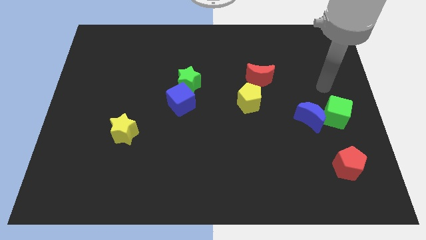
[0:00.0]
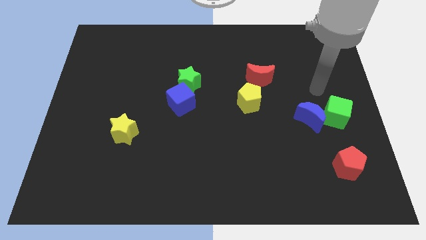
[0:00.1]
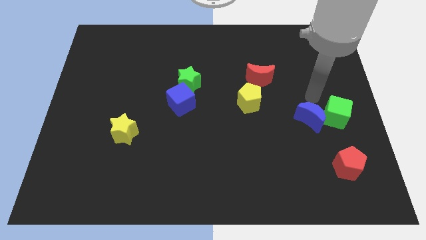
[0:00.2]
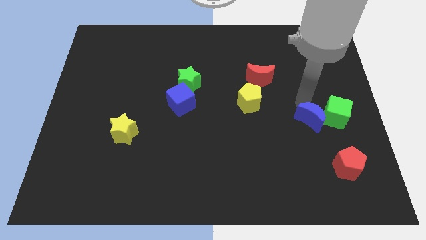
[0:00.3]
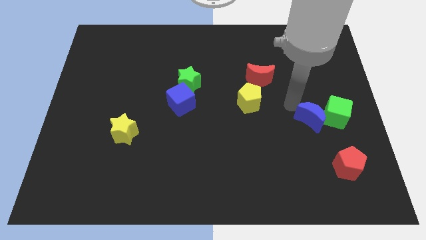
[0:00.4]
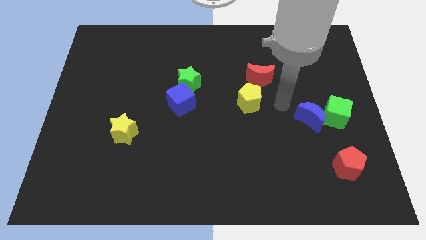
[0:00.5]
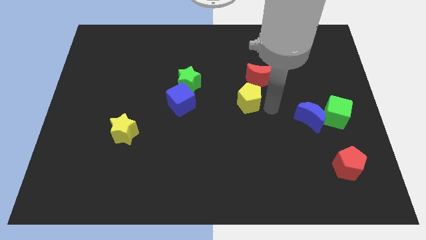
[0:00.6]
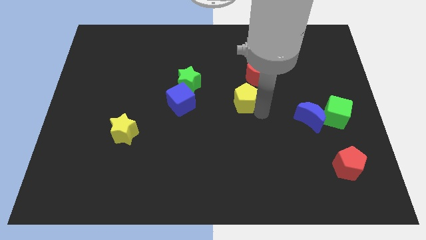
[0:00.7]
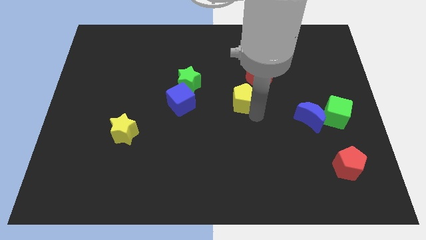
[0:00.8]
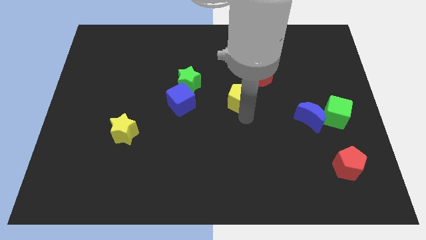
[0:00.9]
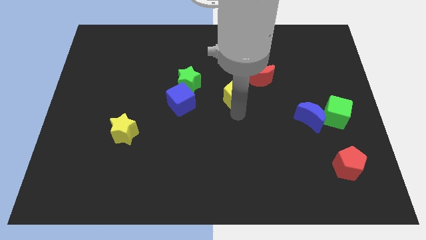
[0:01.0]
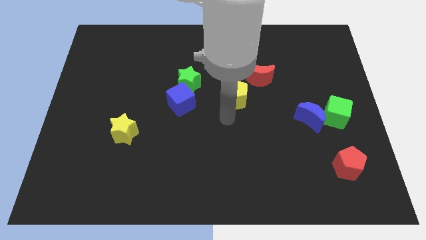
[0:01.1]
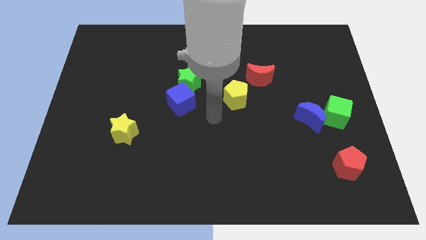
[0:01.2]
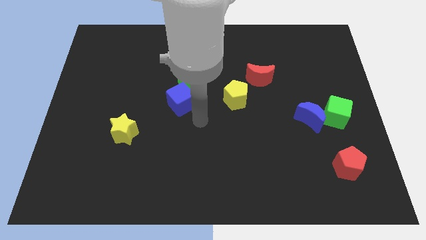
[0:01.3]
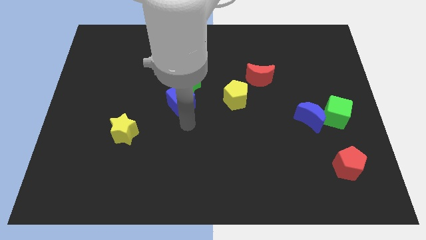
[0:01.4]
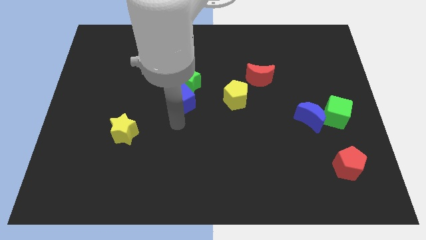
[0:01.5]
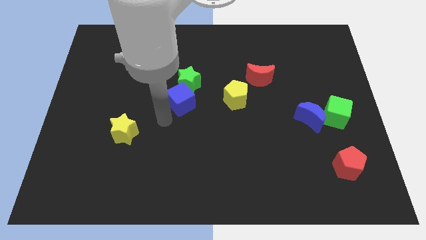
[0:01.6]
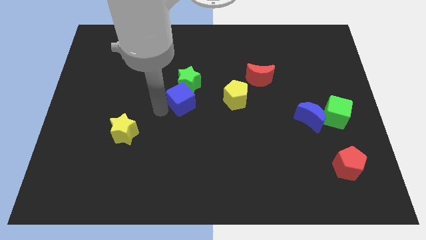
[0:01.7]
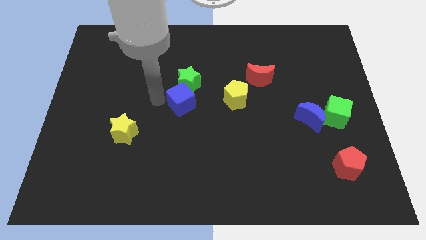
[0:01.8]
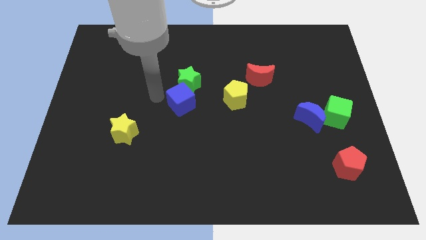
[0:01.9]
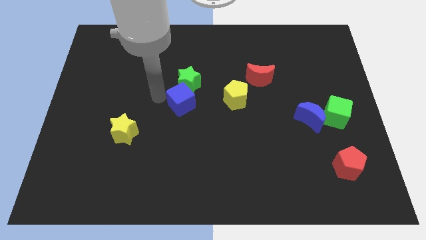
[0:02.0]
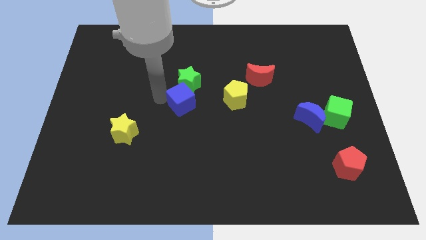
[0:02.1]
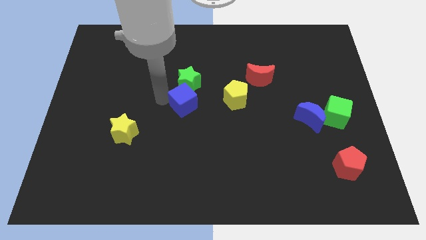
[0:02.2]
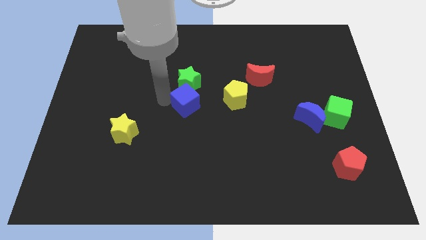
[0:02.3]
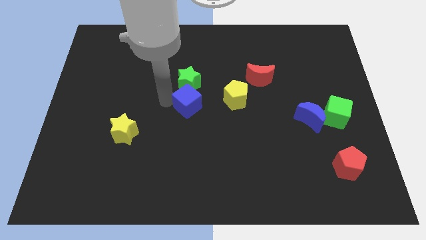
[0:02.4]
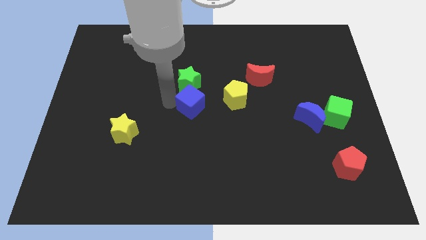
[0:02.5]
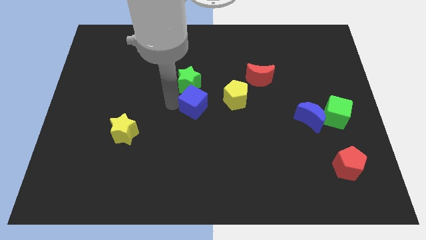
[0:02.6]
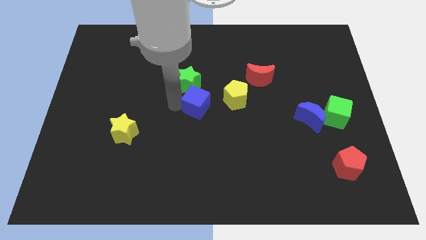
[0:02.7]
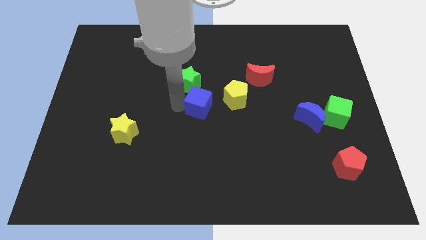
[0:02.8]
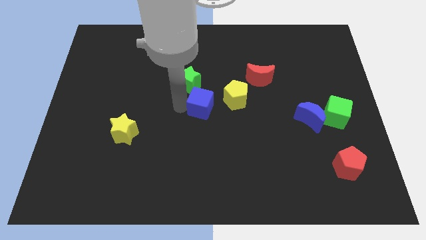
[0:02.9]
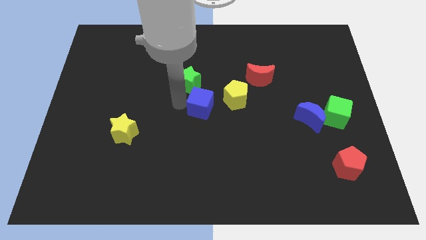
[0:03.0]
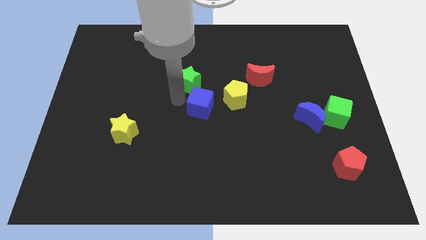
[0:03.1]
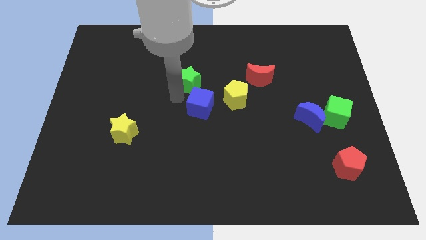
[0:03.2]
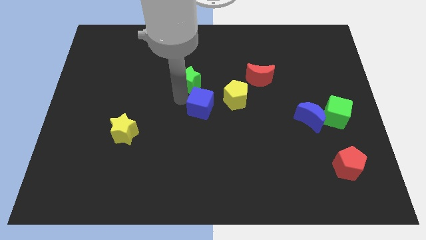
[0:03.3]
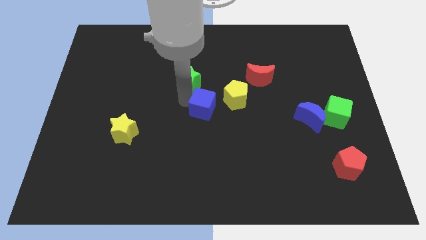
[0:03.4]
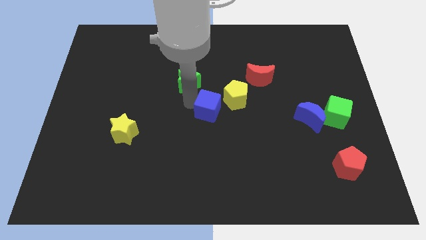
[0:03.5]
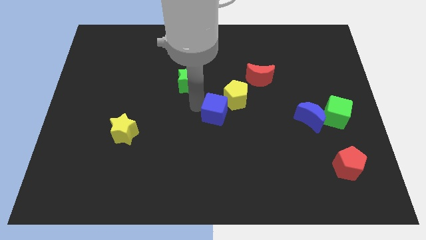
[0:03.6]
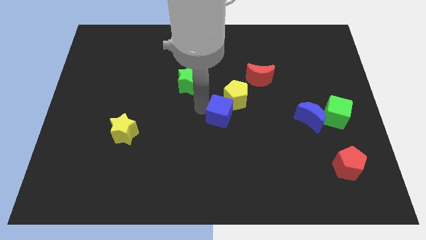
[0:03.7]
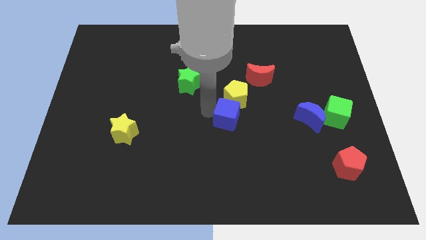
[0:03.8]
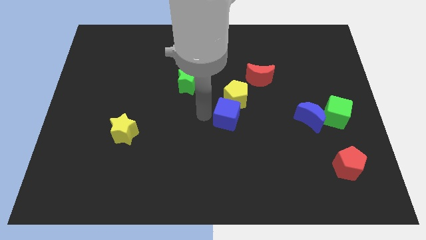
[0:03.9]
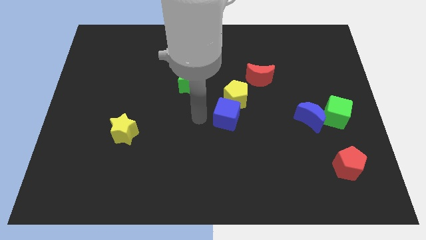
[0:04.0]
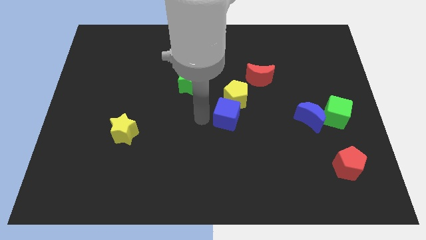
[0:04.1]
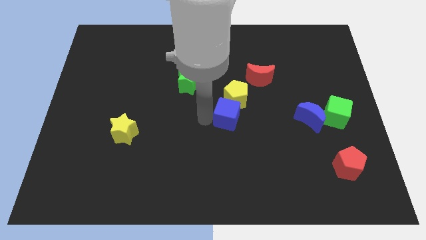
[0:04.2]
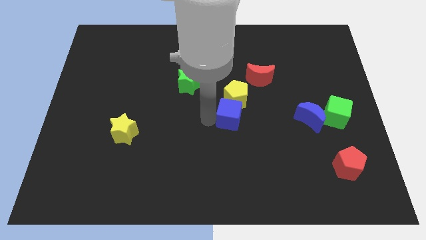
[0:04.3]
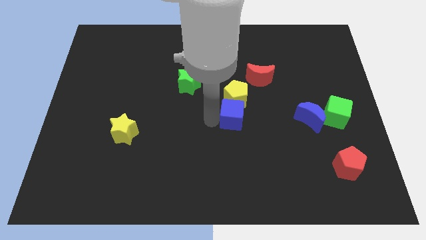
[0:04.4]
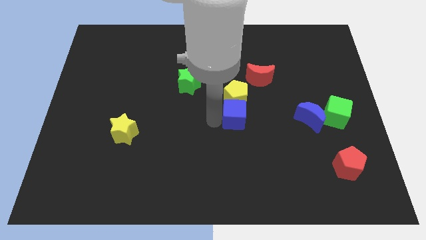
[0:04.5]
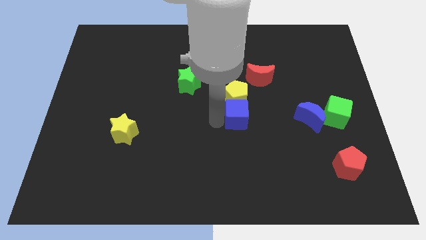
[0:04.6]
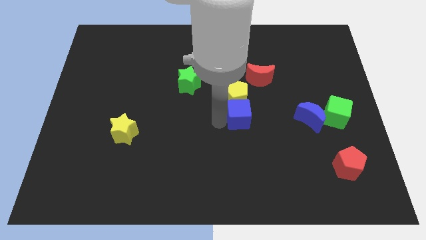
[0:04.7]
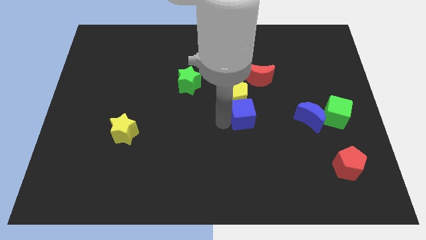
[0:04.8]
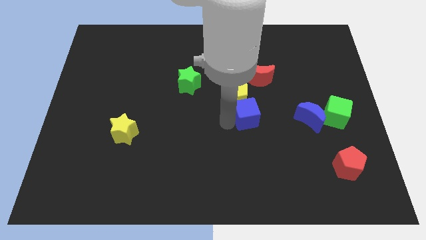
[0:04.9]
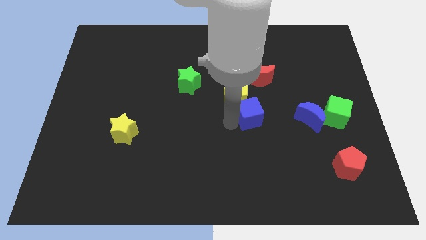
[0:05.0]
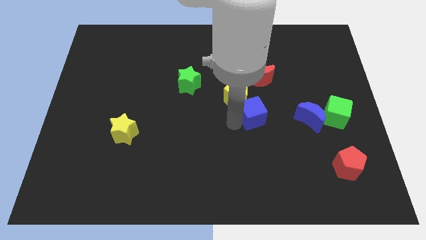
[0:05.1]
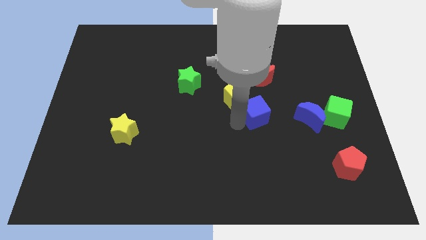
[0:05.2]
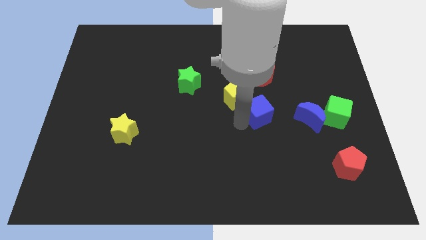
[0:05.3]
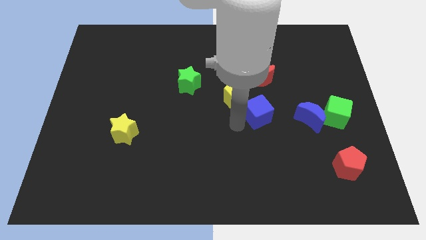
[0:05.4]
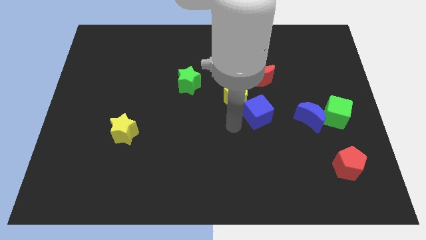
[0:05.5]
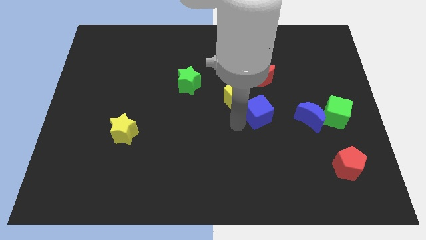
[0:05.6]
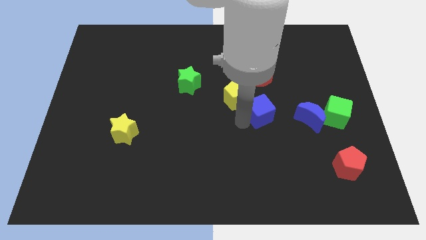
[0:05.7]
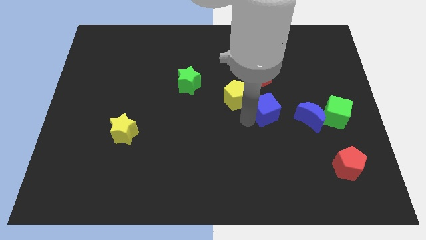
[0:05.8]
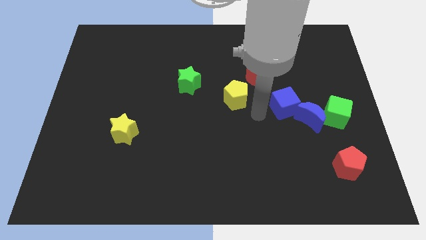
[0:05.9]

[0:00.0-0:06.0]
move the blue cube right

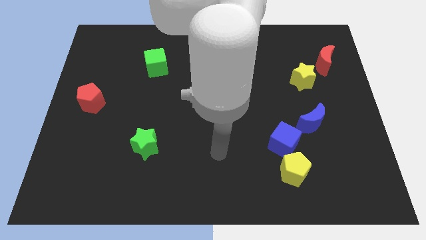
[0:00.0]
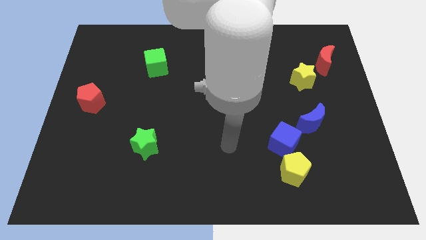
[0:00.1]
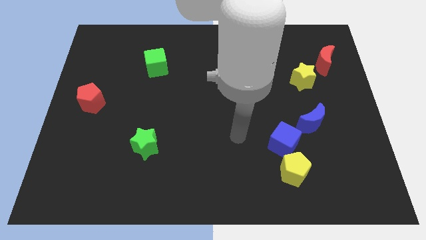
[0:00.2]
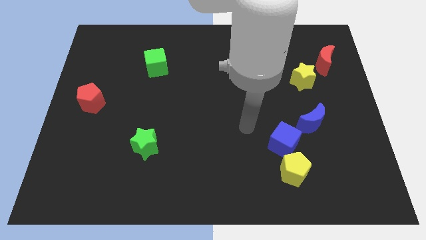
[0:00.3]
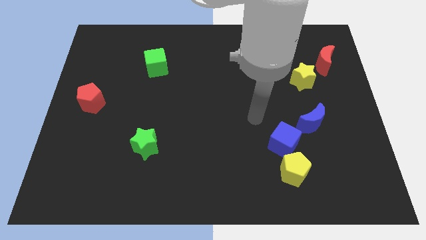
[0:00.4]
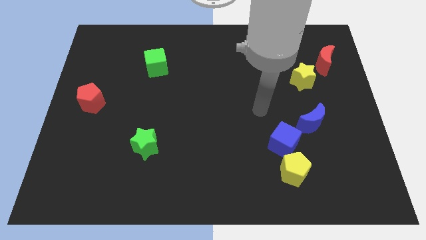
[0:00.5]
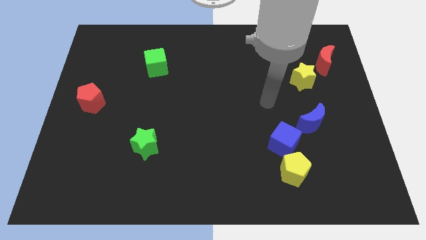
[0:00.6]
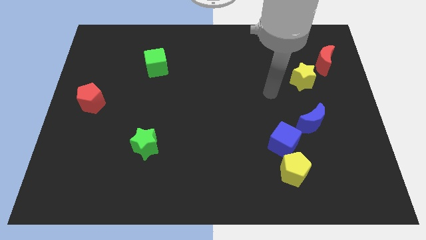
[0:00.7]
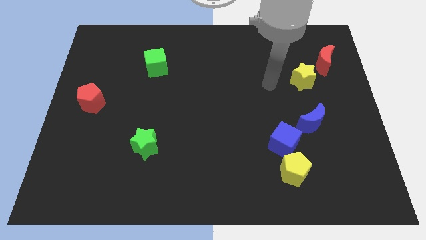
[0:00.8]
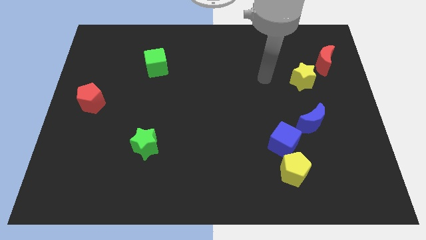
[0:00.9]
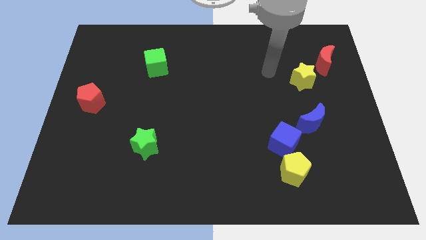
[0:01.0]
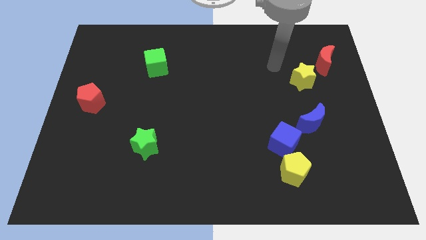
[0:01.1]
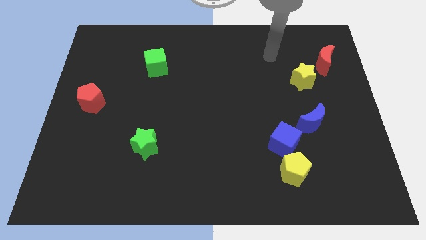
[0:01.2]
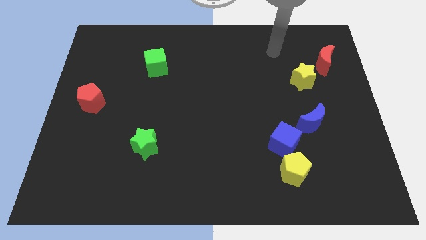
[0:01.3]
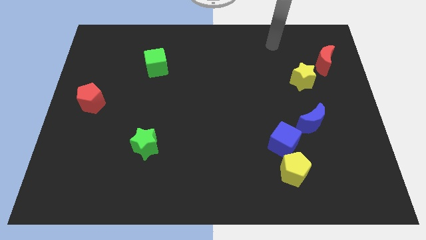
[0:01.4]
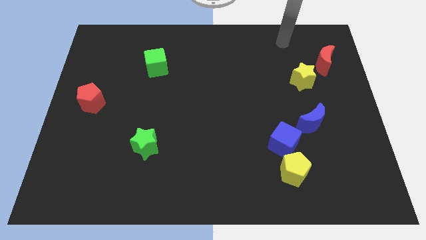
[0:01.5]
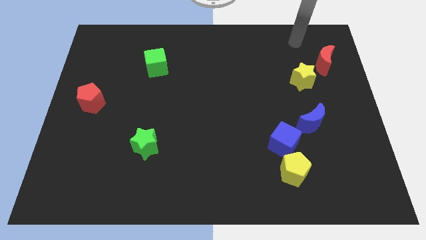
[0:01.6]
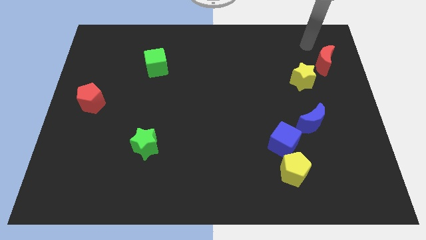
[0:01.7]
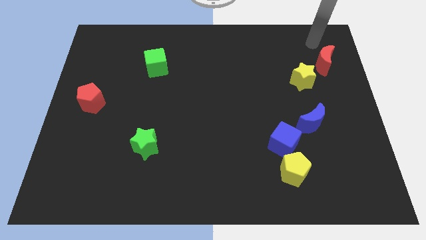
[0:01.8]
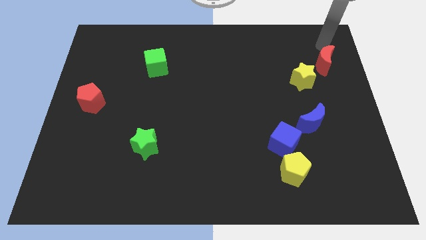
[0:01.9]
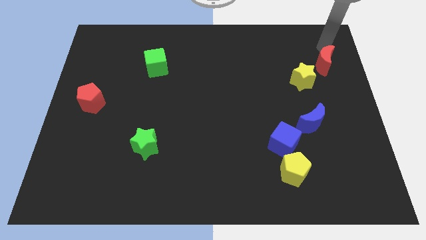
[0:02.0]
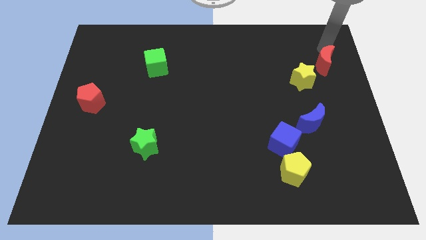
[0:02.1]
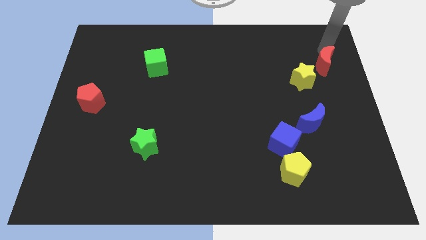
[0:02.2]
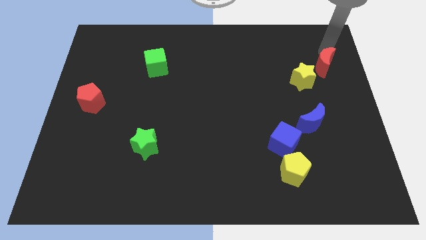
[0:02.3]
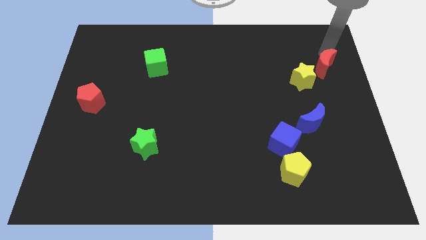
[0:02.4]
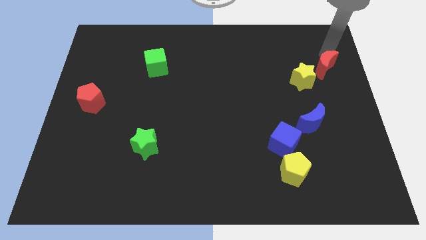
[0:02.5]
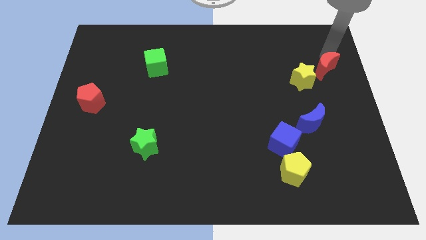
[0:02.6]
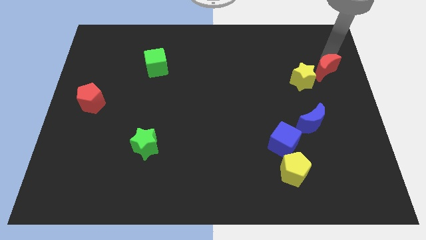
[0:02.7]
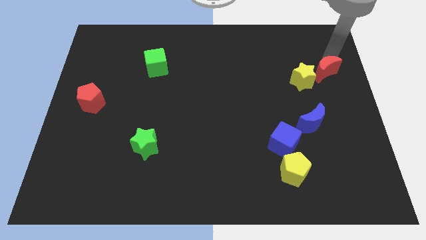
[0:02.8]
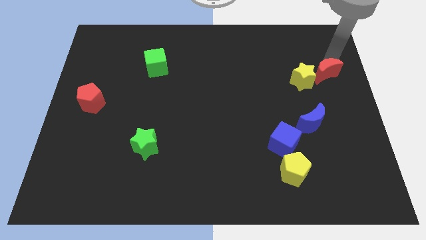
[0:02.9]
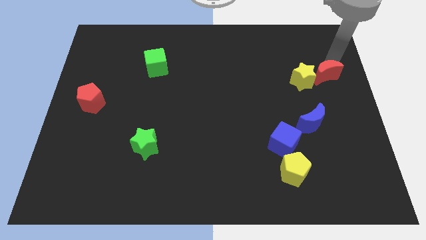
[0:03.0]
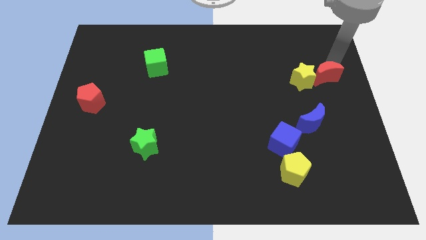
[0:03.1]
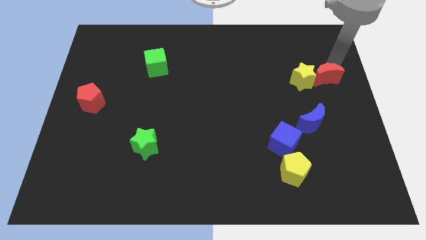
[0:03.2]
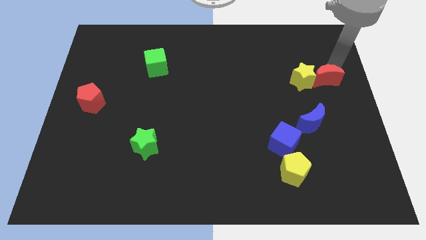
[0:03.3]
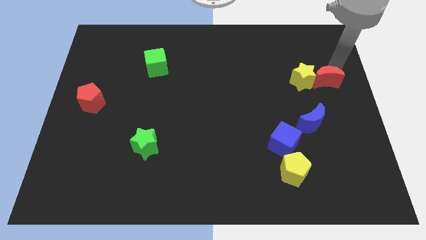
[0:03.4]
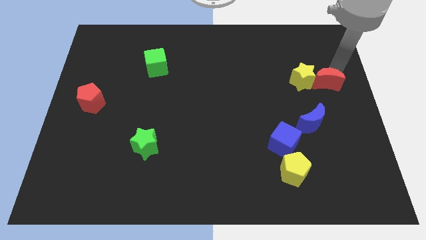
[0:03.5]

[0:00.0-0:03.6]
move the red moon downwards somewhat
